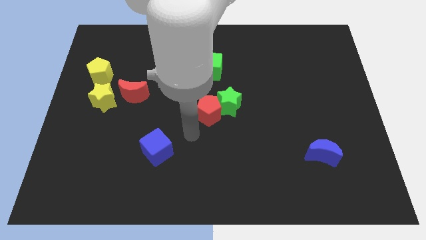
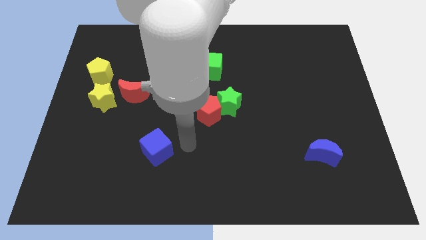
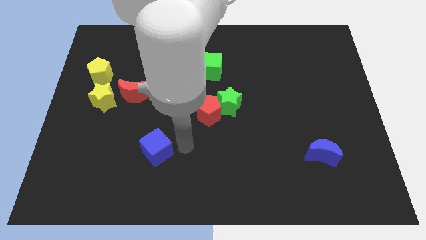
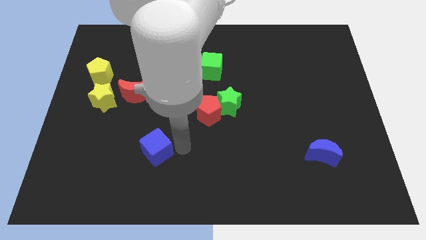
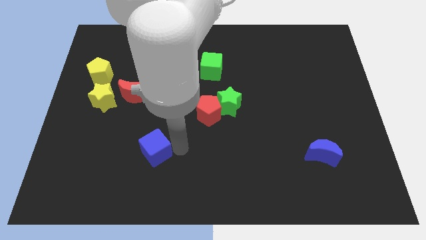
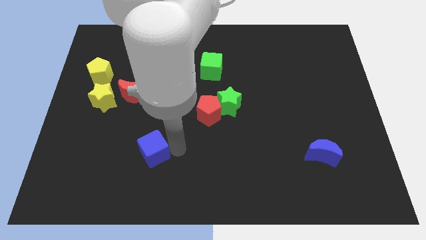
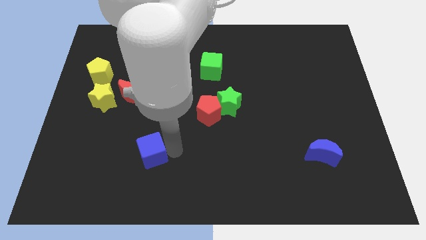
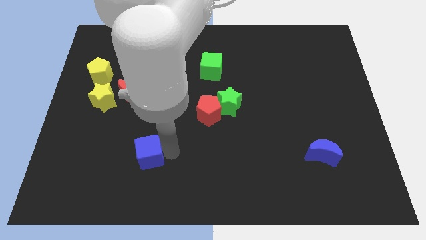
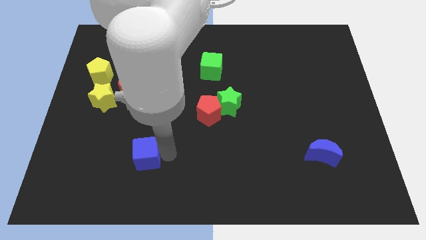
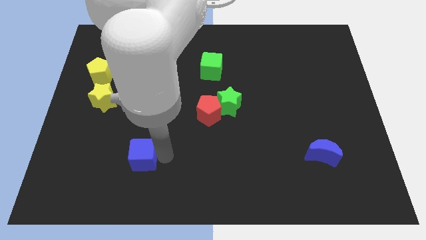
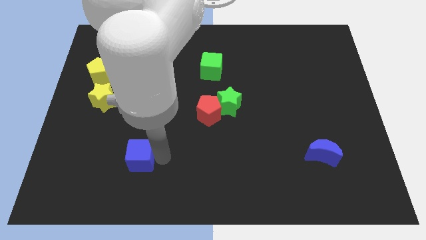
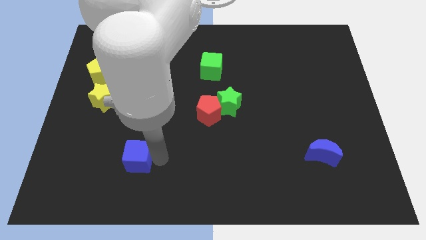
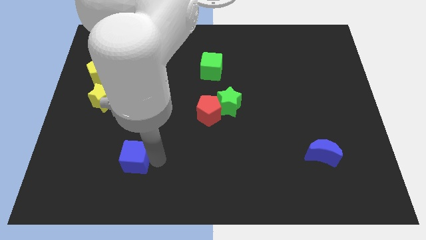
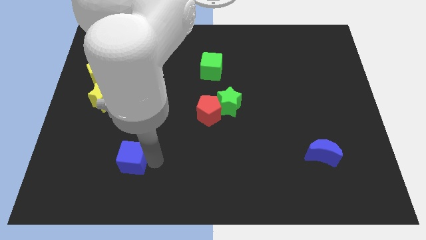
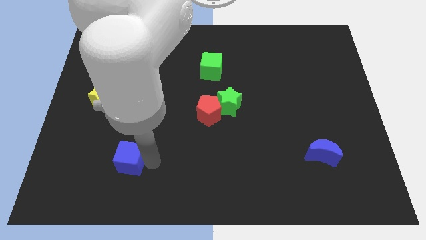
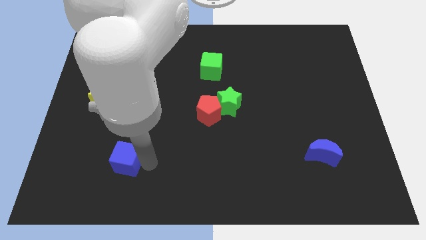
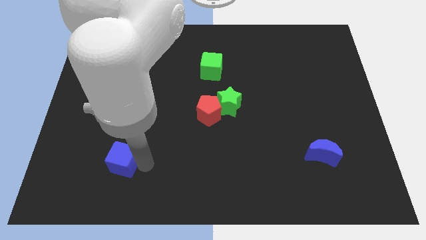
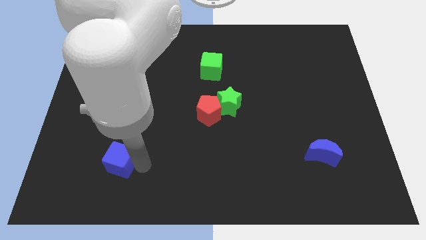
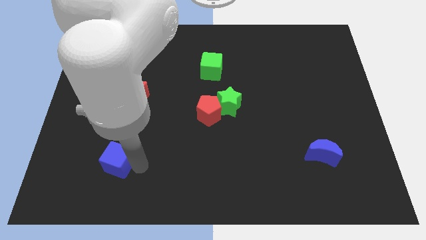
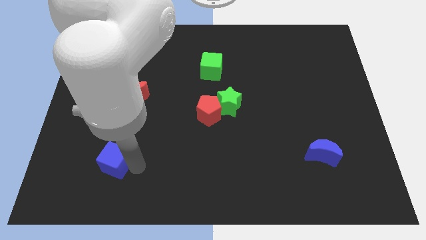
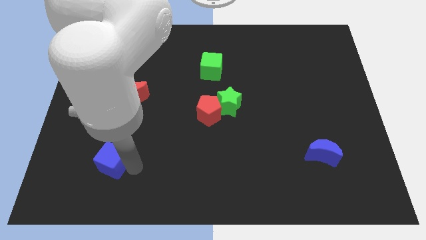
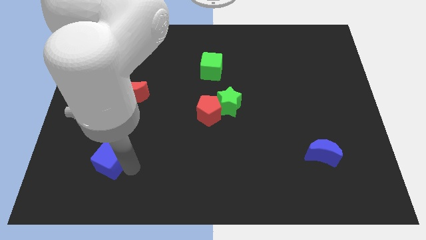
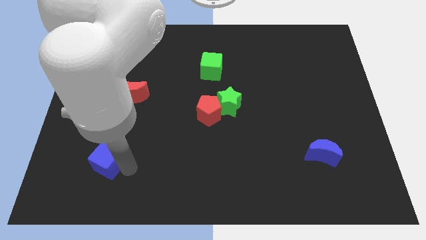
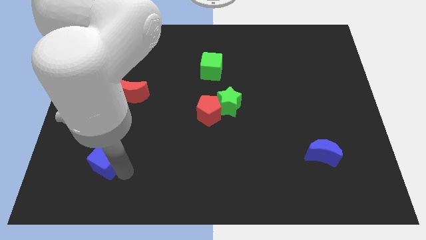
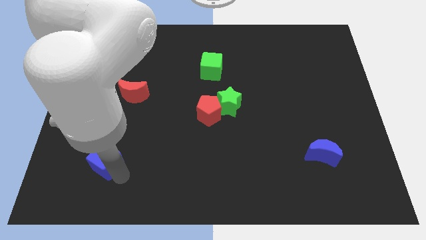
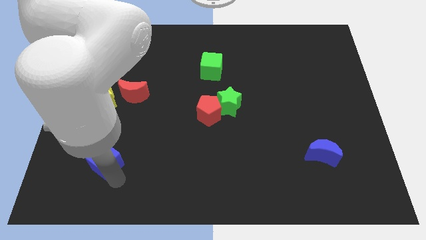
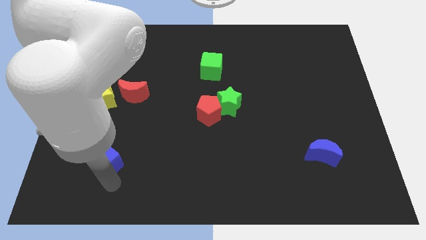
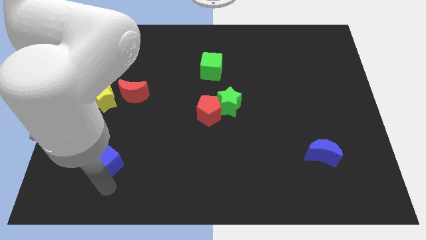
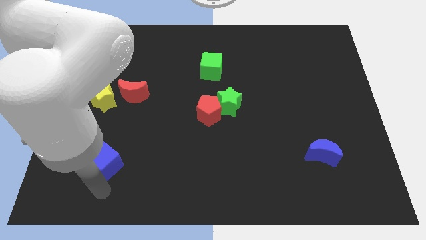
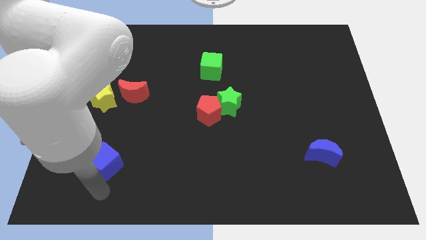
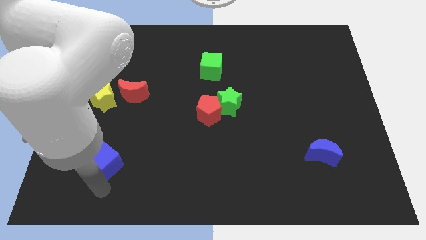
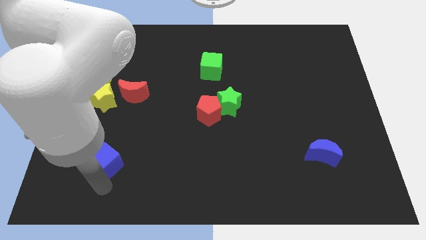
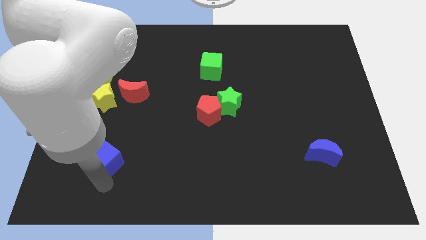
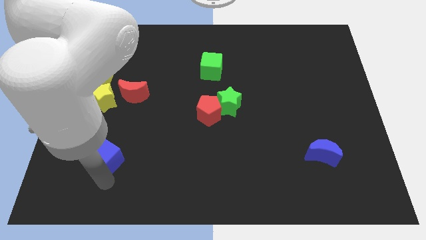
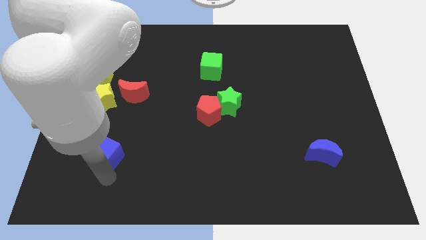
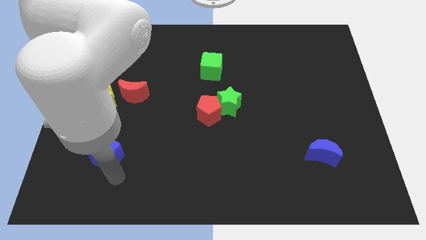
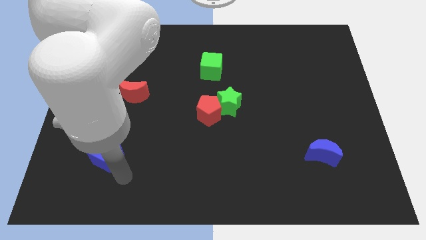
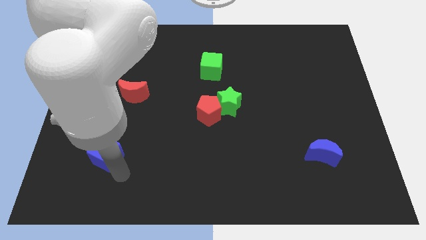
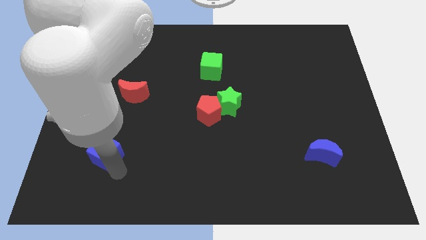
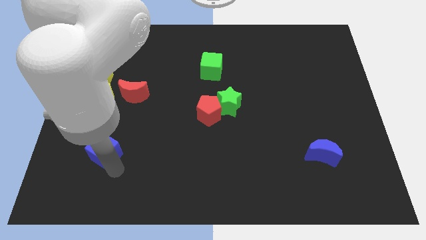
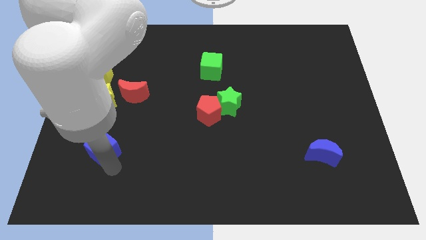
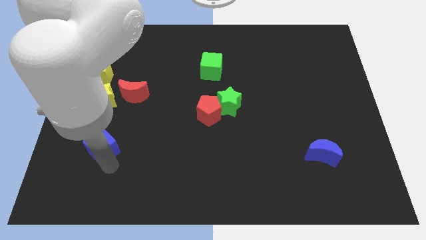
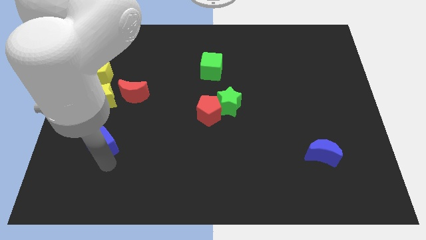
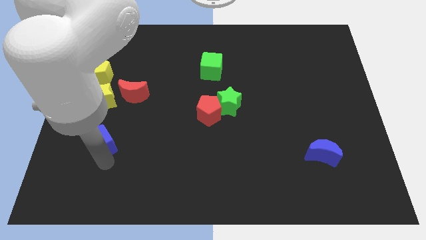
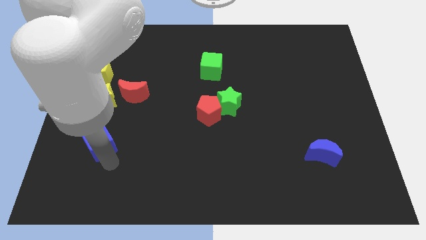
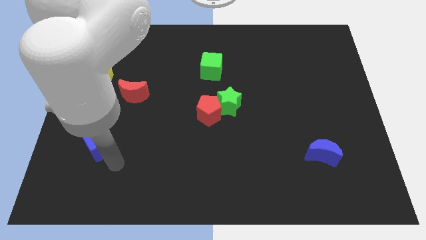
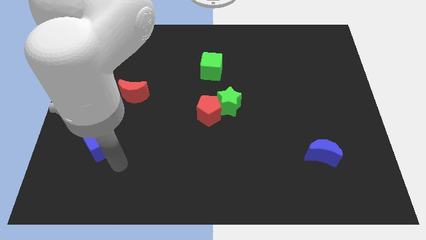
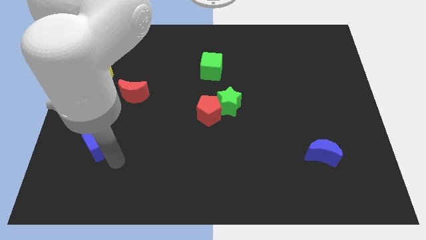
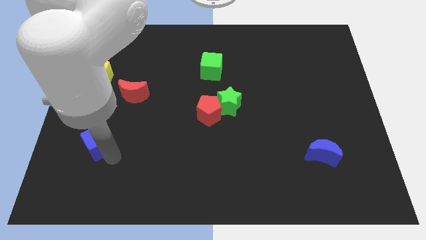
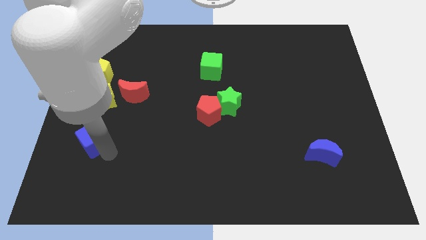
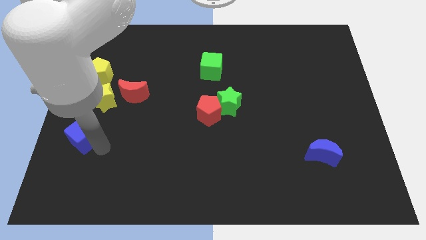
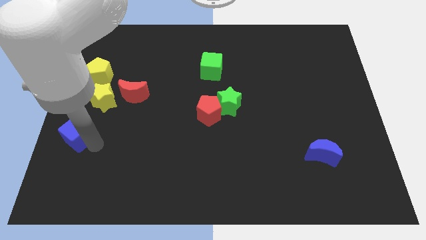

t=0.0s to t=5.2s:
push the blue cube to the center left

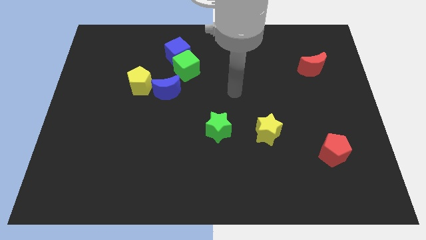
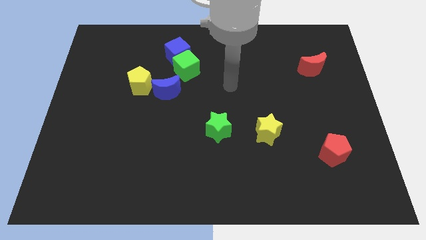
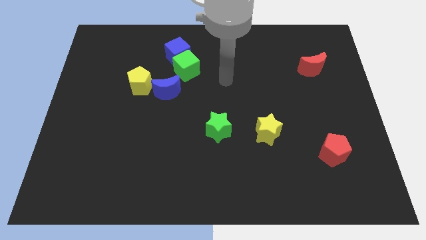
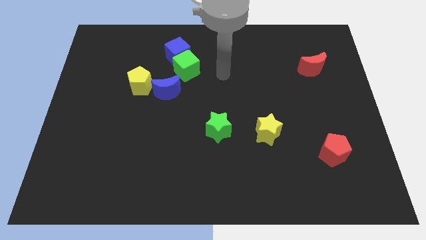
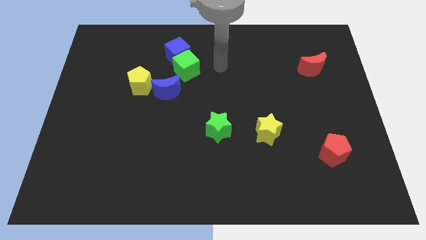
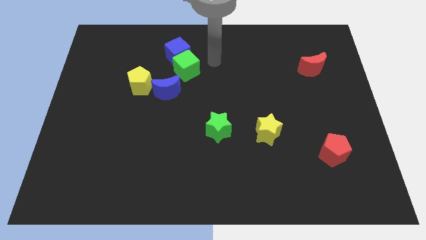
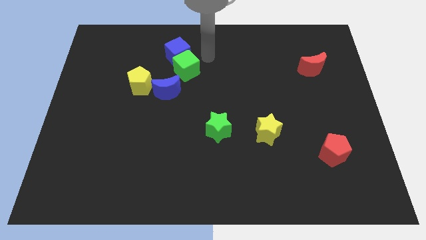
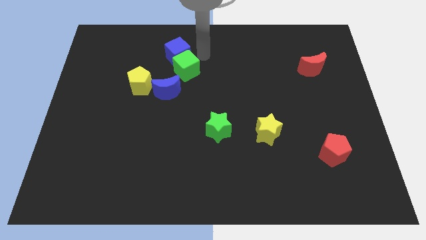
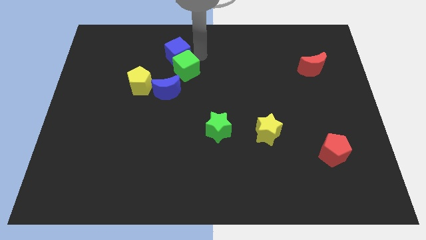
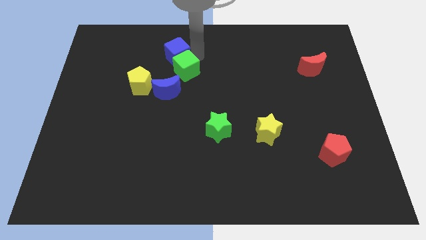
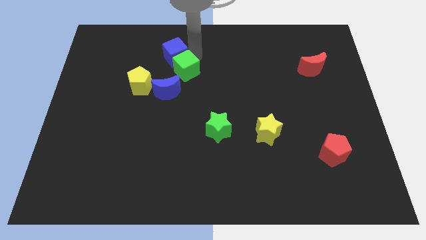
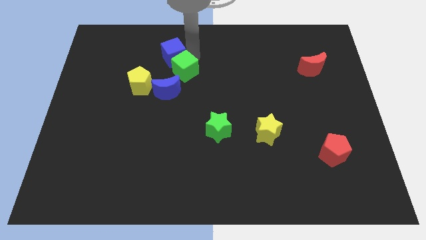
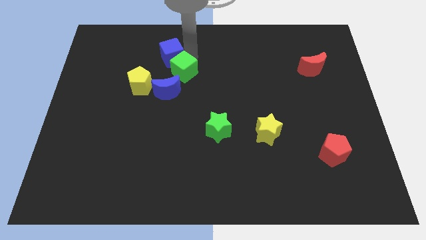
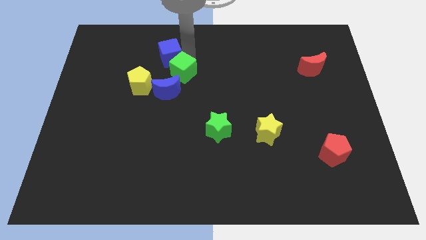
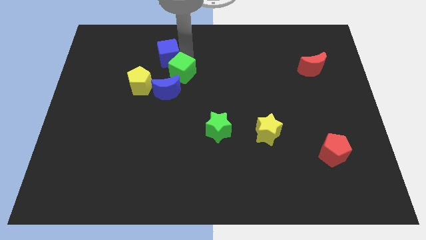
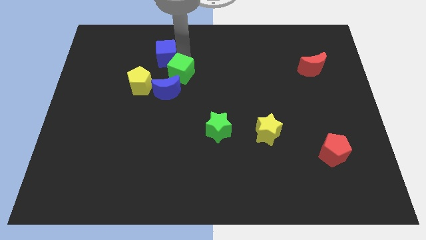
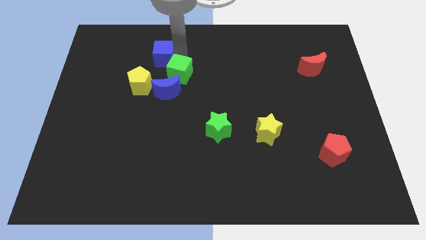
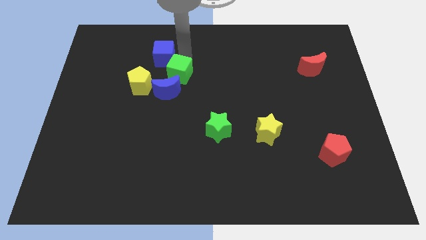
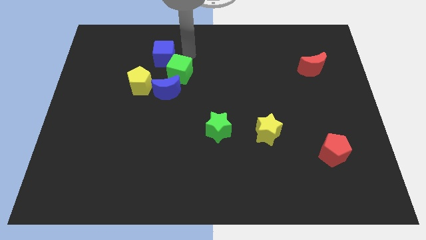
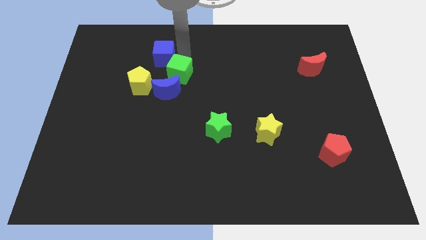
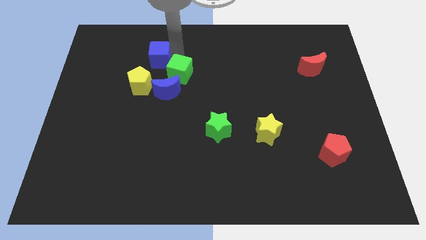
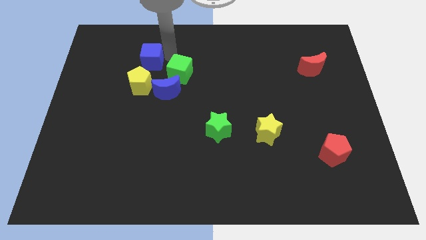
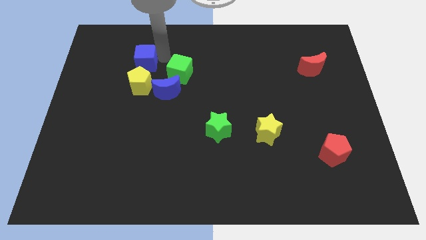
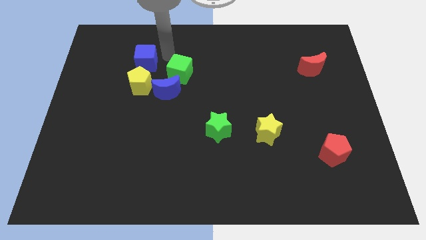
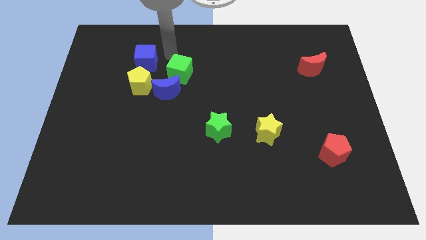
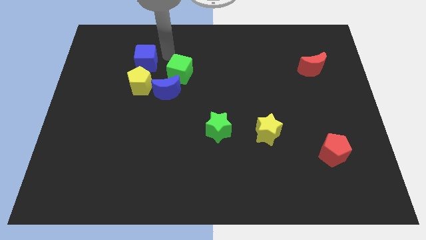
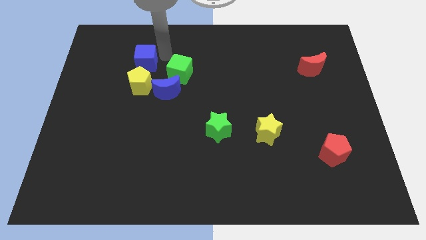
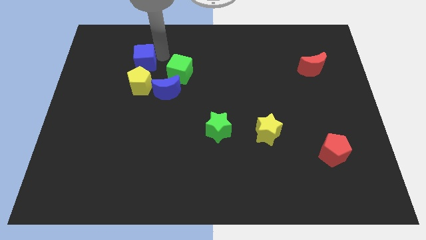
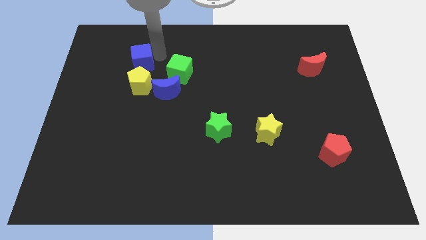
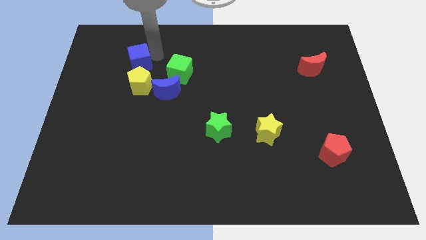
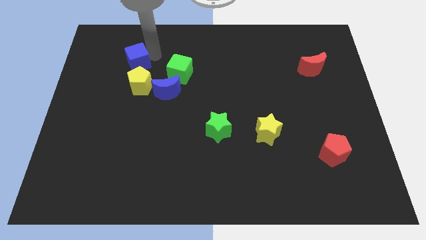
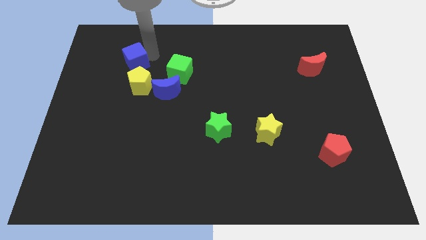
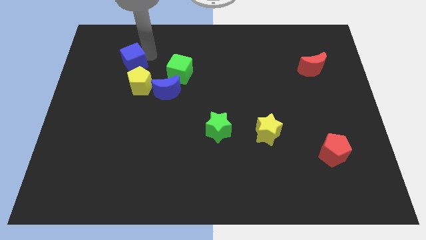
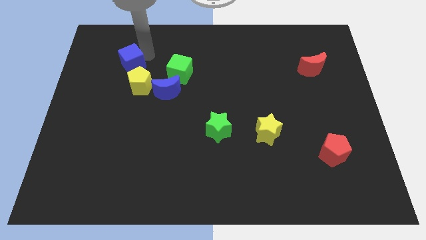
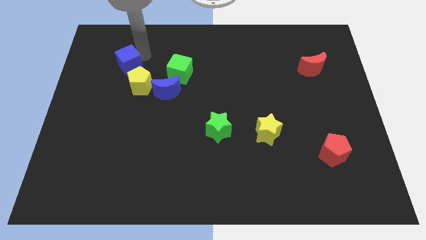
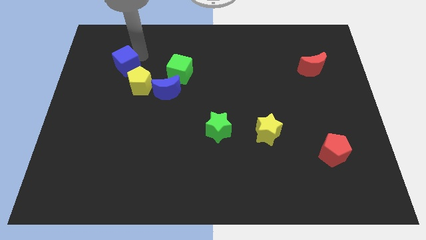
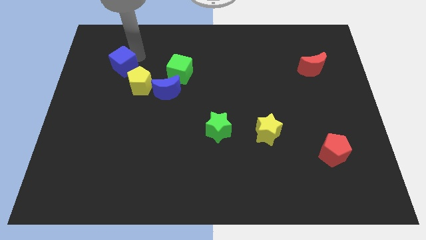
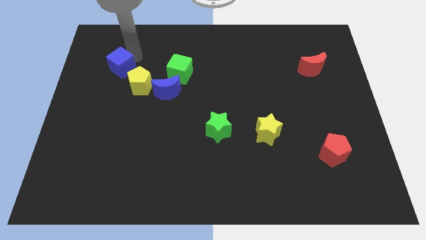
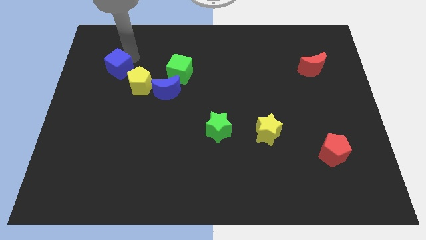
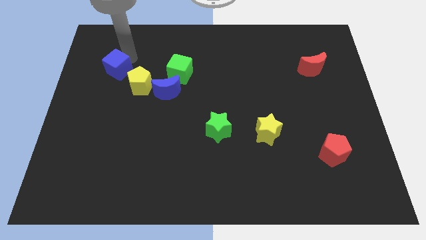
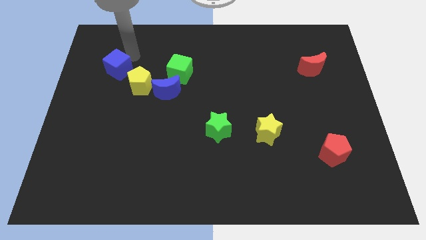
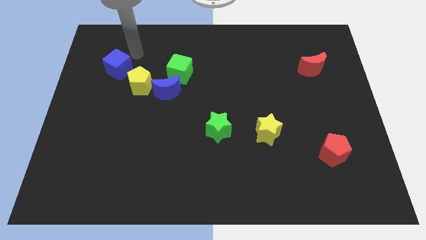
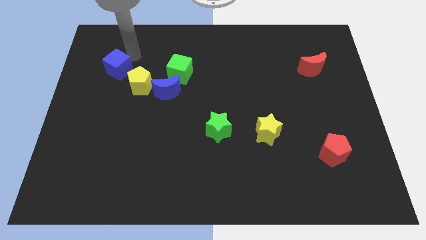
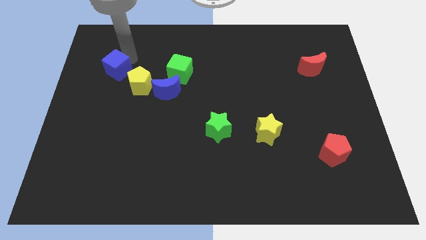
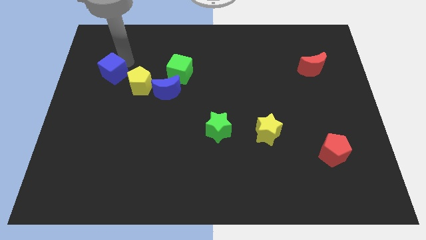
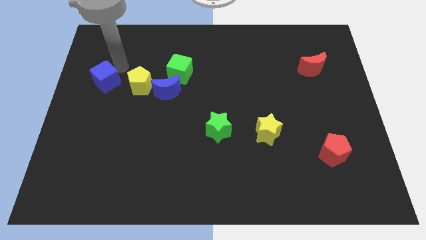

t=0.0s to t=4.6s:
push the blue cube to the left side
